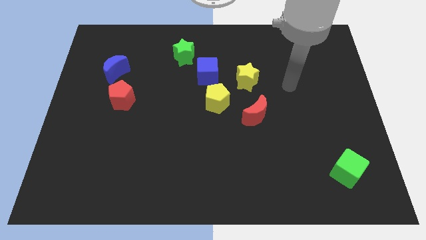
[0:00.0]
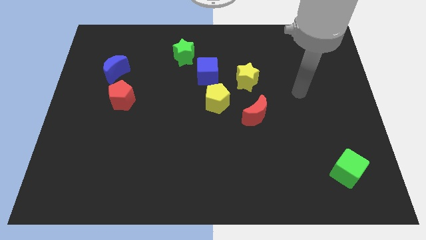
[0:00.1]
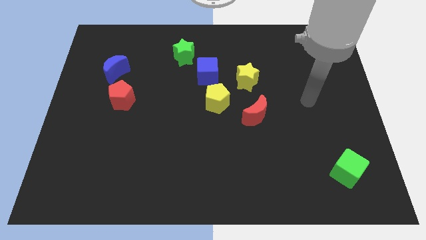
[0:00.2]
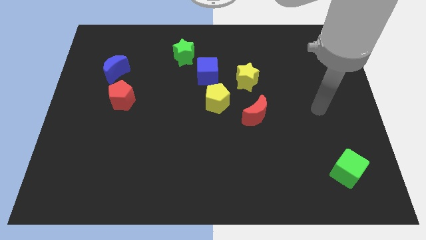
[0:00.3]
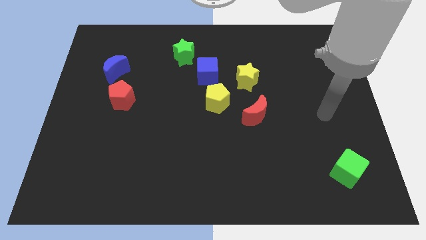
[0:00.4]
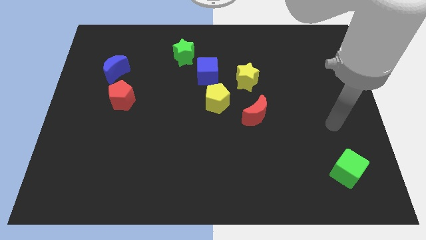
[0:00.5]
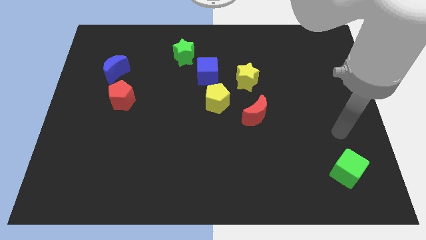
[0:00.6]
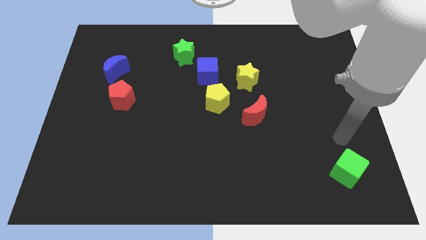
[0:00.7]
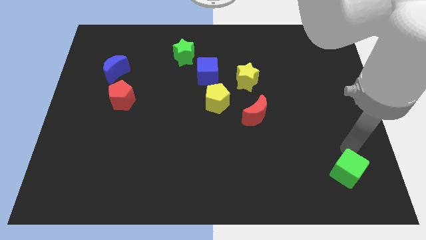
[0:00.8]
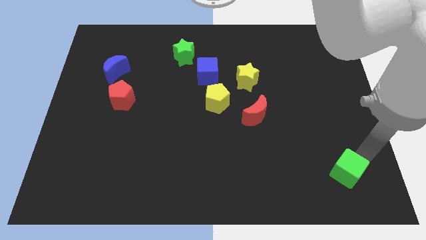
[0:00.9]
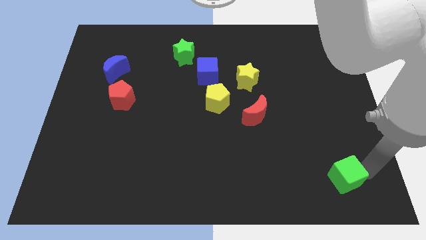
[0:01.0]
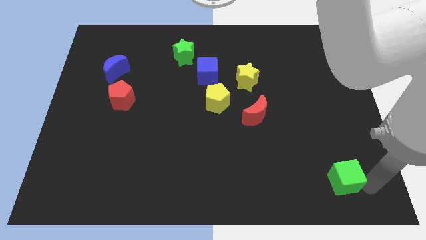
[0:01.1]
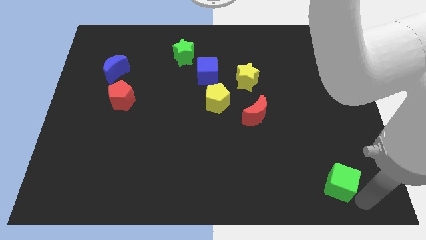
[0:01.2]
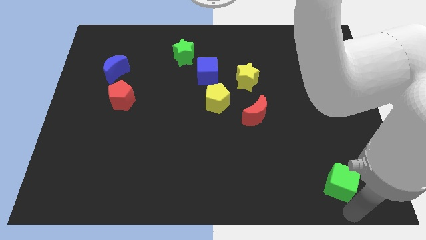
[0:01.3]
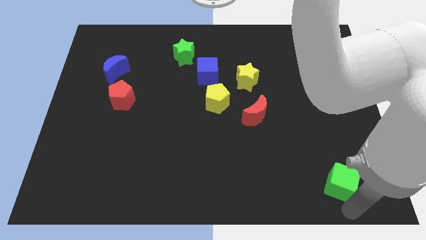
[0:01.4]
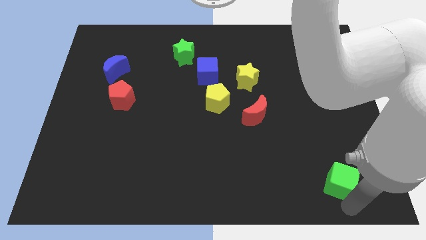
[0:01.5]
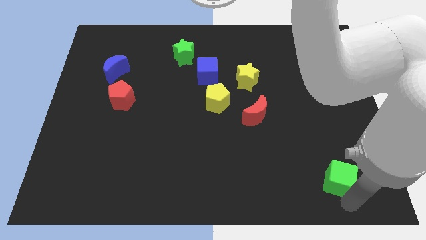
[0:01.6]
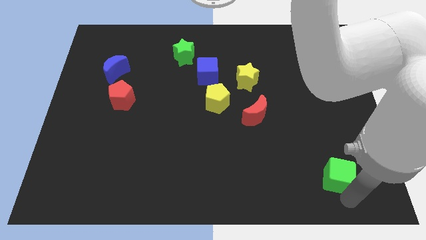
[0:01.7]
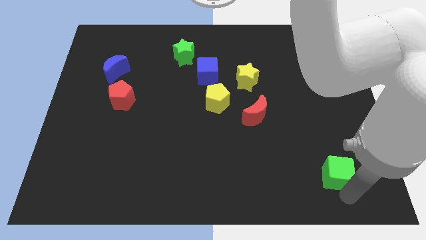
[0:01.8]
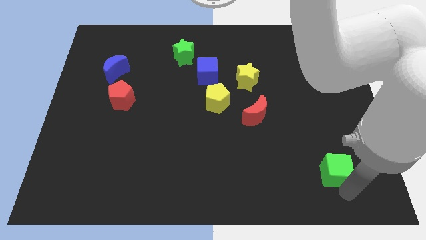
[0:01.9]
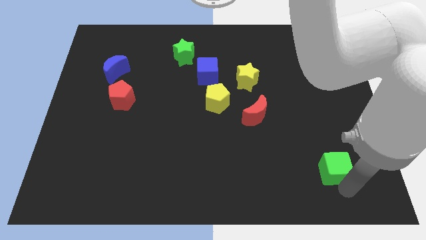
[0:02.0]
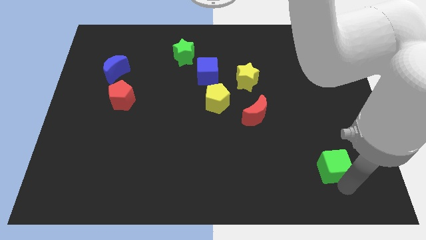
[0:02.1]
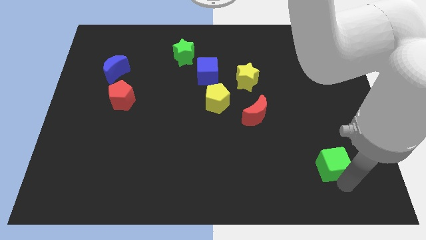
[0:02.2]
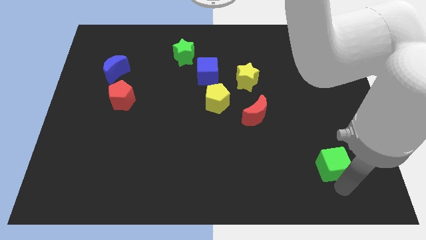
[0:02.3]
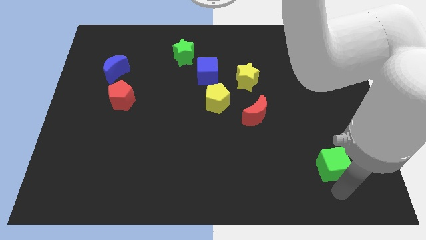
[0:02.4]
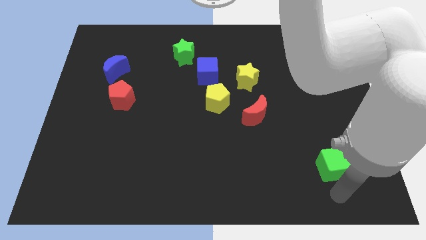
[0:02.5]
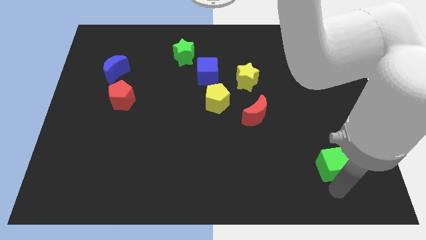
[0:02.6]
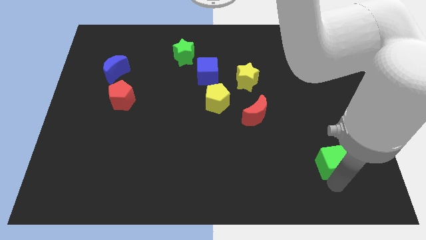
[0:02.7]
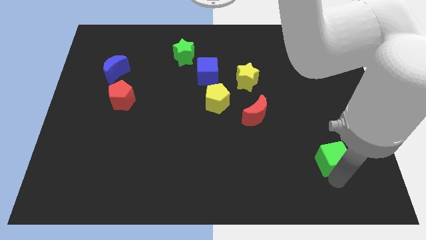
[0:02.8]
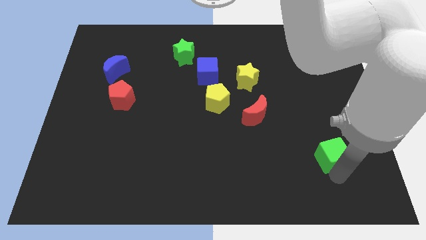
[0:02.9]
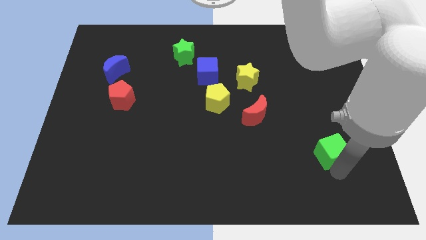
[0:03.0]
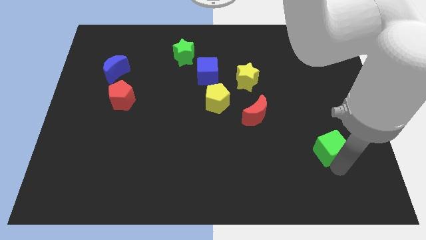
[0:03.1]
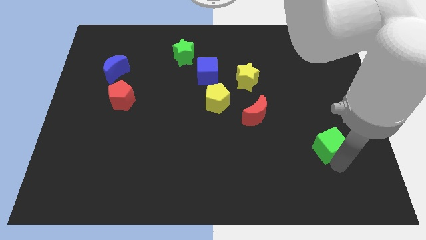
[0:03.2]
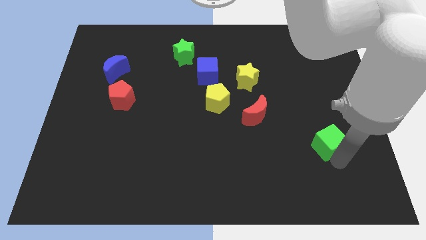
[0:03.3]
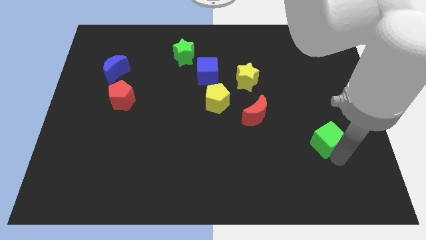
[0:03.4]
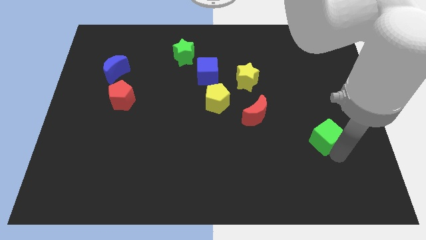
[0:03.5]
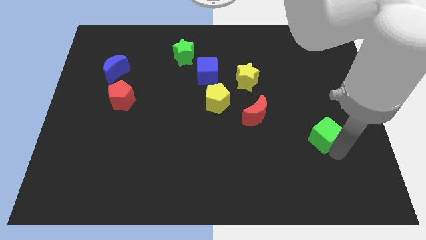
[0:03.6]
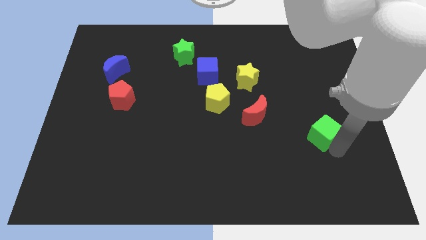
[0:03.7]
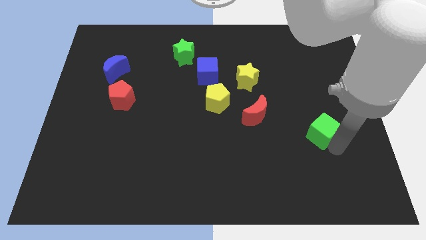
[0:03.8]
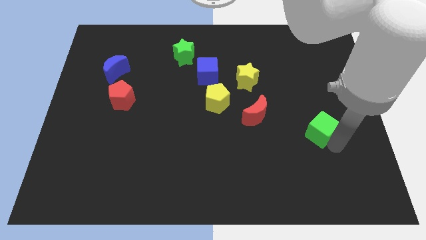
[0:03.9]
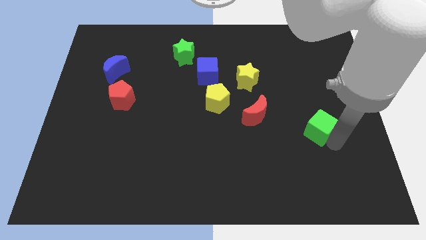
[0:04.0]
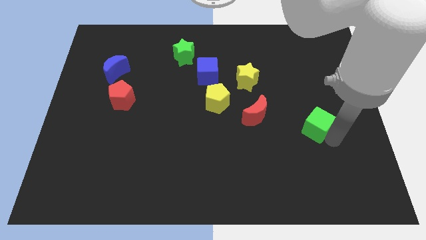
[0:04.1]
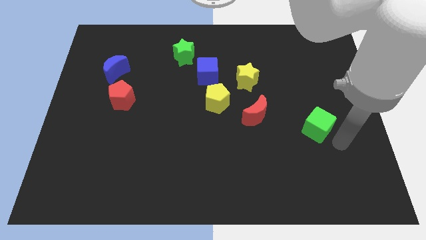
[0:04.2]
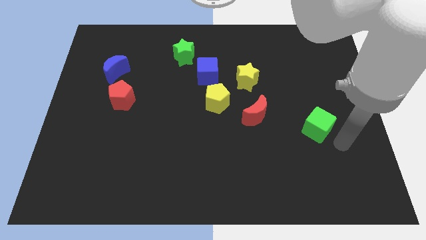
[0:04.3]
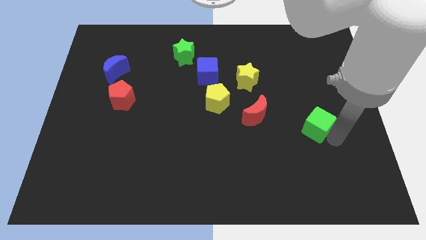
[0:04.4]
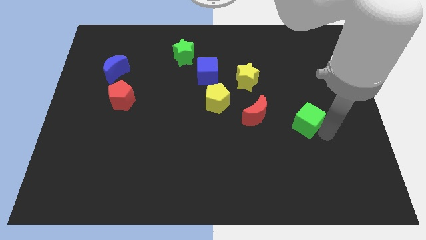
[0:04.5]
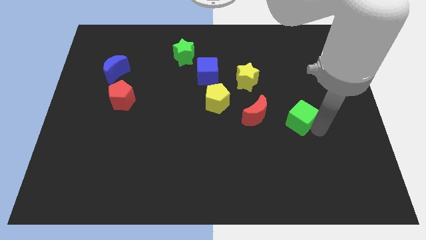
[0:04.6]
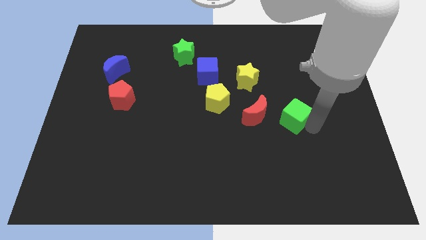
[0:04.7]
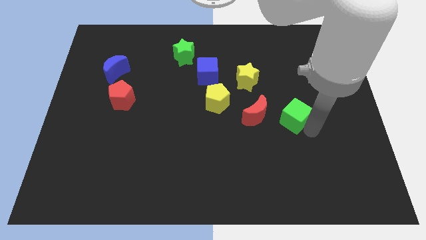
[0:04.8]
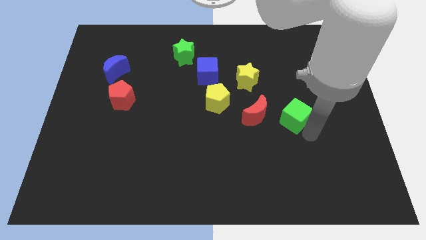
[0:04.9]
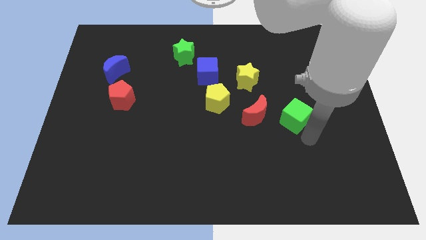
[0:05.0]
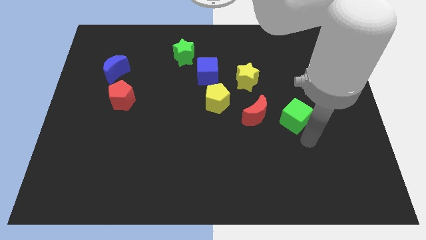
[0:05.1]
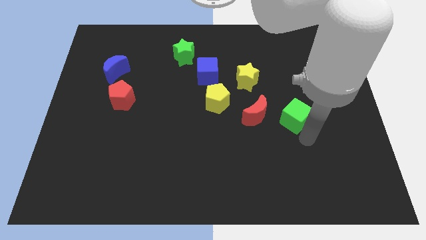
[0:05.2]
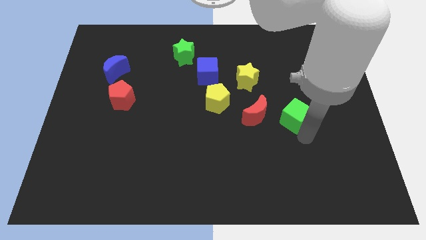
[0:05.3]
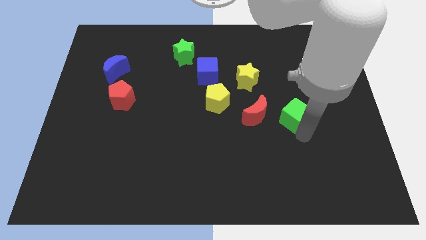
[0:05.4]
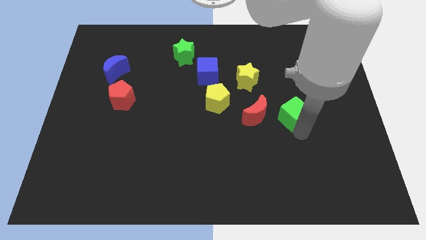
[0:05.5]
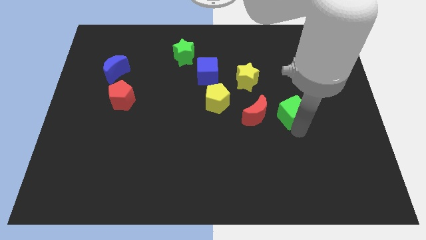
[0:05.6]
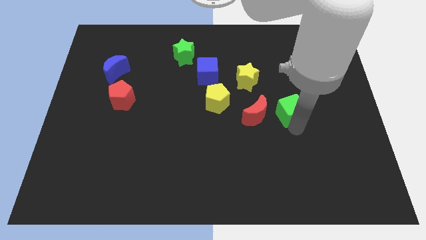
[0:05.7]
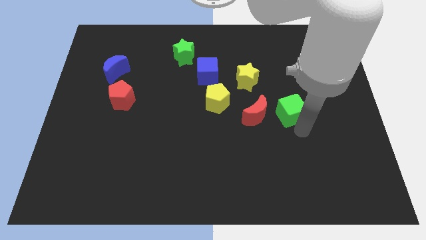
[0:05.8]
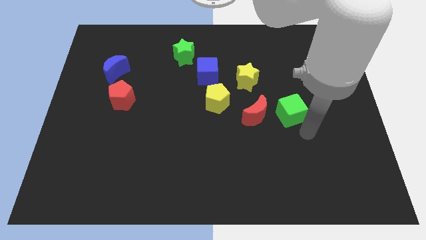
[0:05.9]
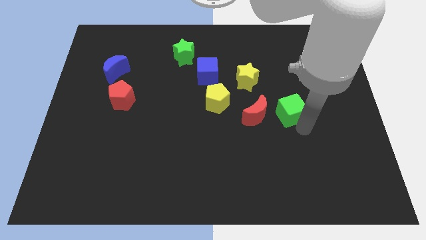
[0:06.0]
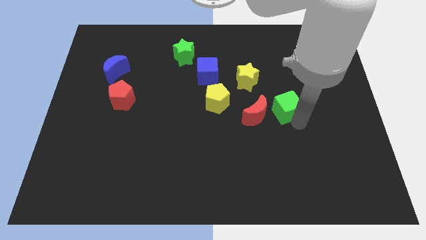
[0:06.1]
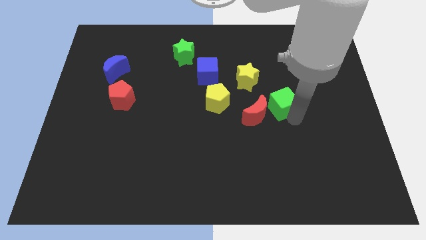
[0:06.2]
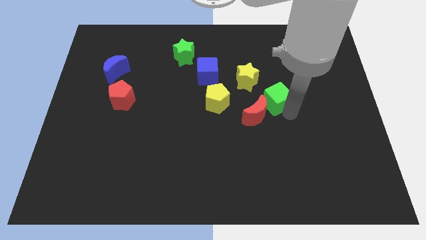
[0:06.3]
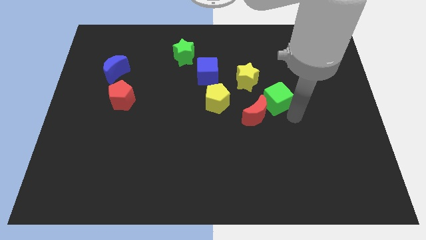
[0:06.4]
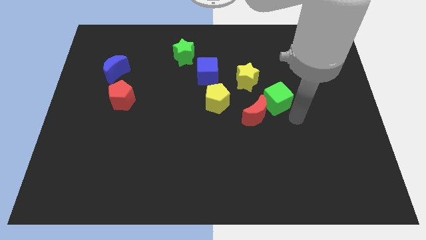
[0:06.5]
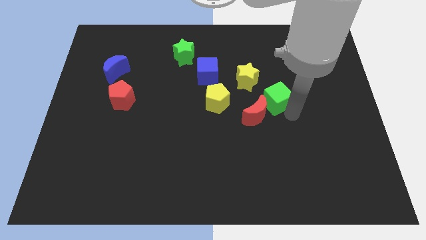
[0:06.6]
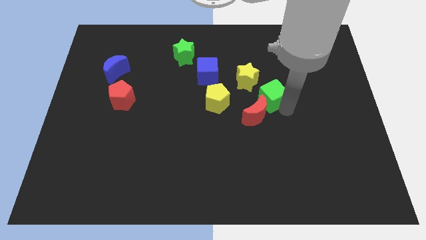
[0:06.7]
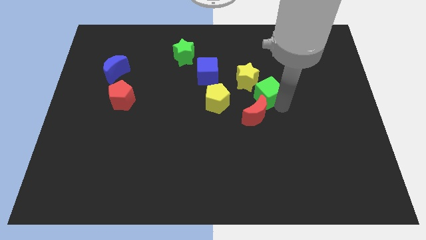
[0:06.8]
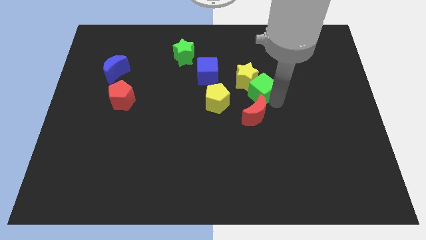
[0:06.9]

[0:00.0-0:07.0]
put the green cube towards the yellow star

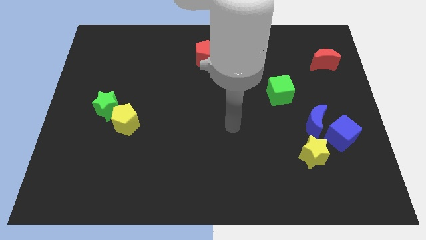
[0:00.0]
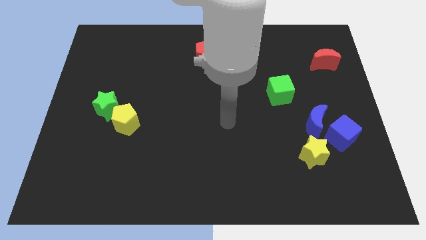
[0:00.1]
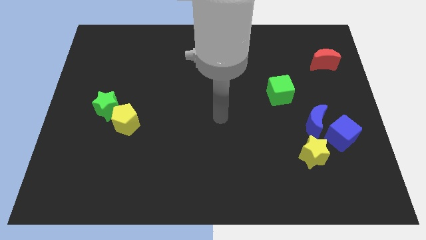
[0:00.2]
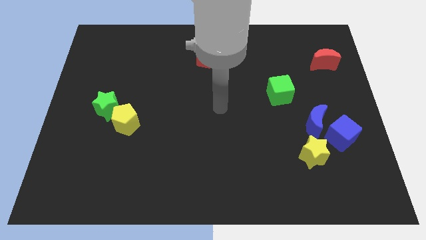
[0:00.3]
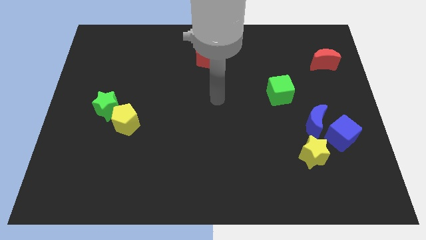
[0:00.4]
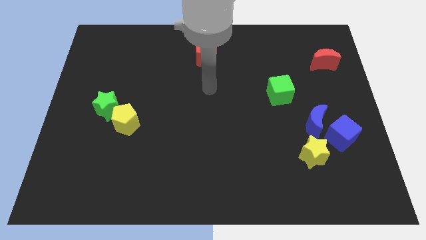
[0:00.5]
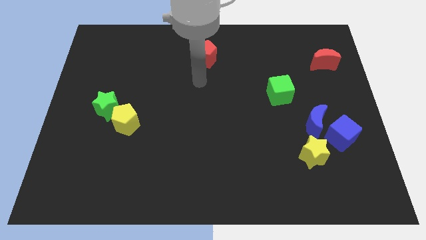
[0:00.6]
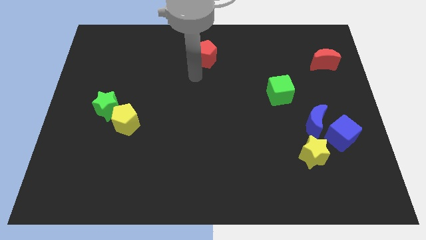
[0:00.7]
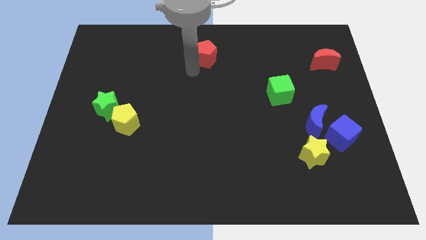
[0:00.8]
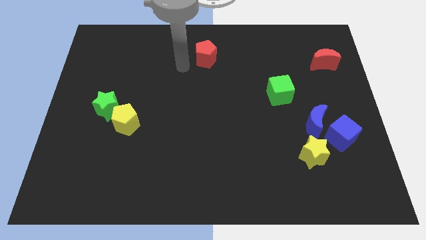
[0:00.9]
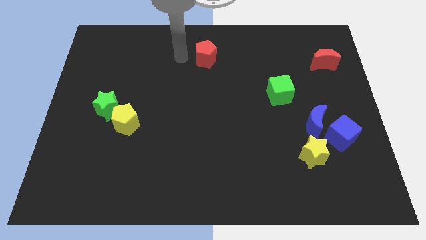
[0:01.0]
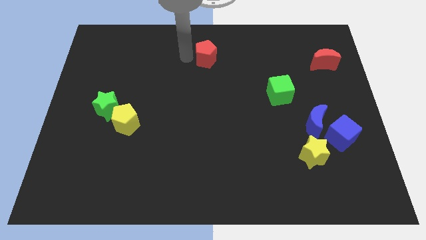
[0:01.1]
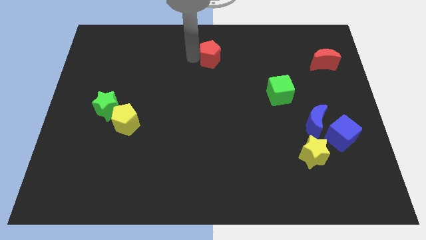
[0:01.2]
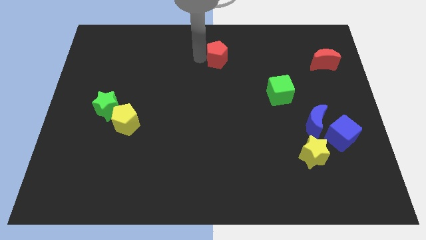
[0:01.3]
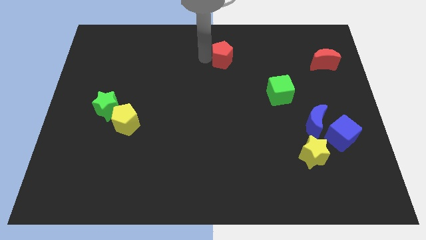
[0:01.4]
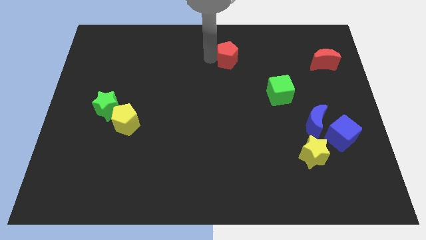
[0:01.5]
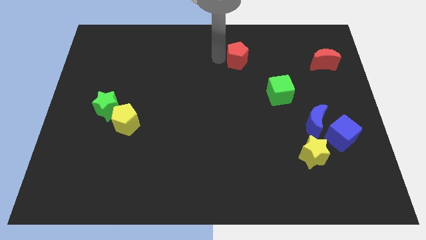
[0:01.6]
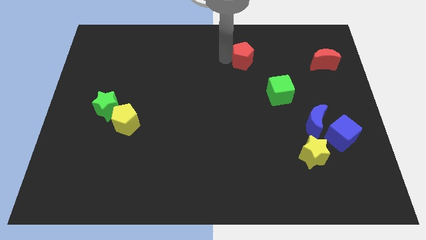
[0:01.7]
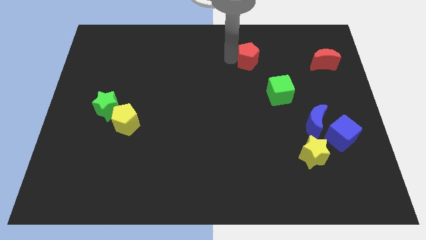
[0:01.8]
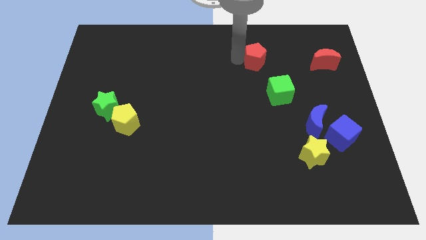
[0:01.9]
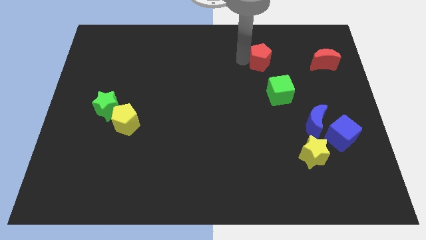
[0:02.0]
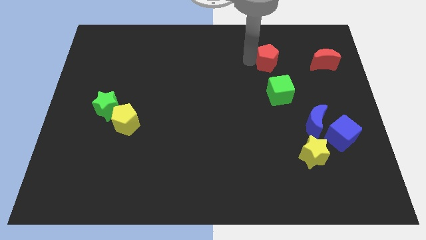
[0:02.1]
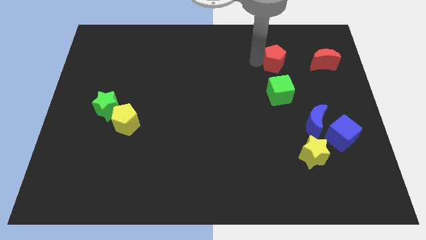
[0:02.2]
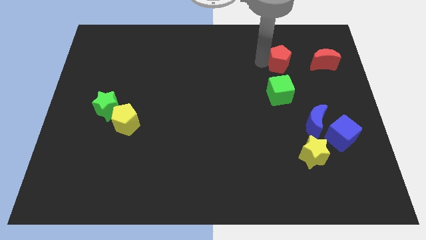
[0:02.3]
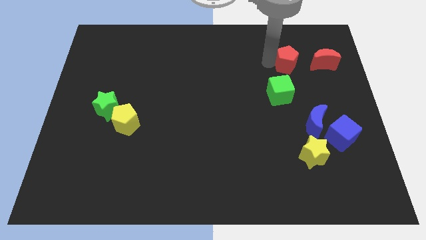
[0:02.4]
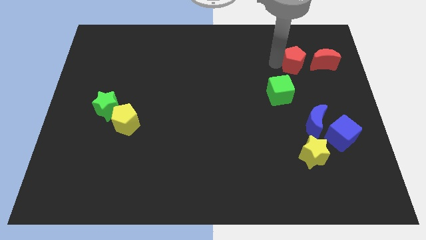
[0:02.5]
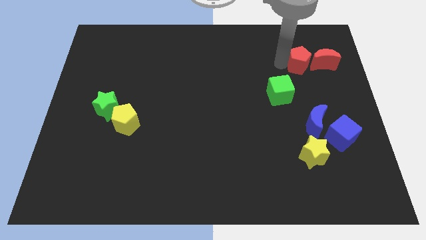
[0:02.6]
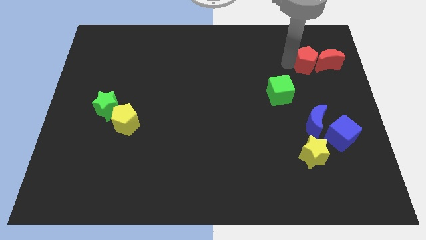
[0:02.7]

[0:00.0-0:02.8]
move the red pentagon towards the red moon
